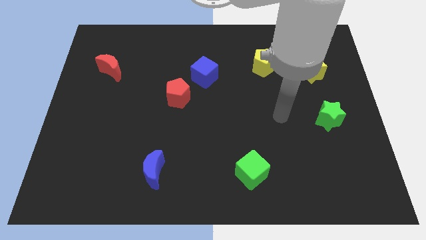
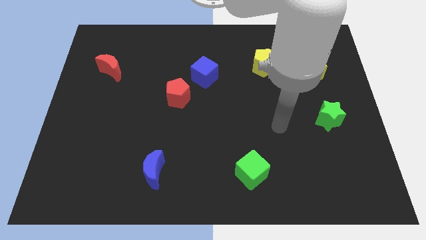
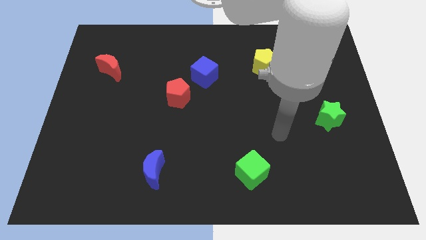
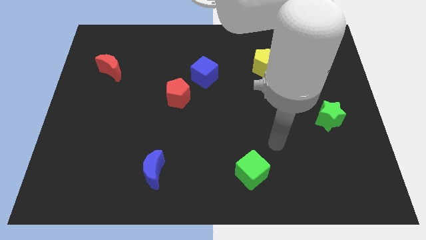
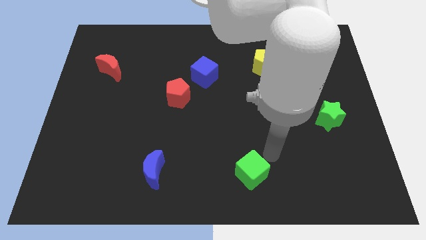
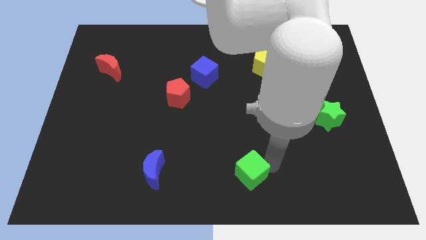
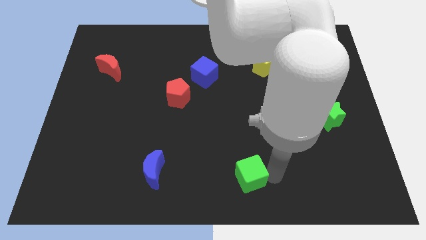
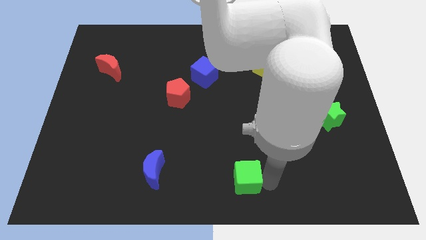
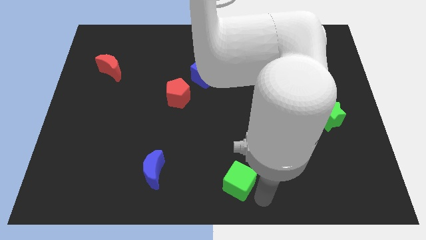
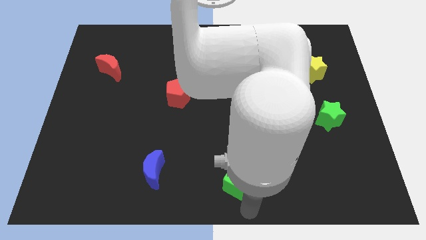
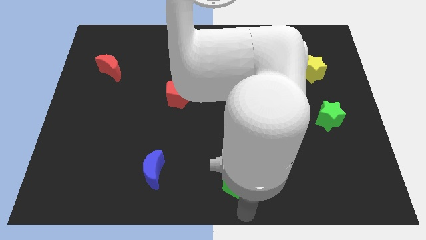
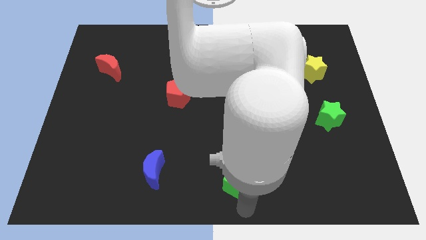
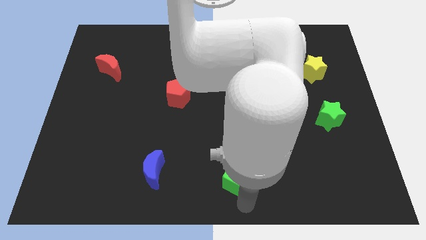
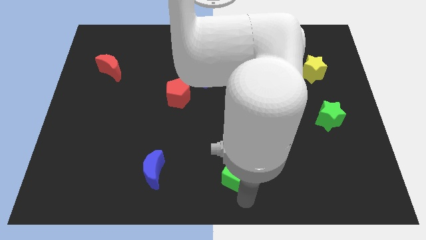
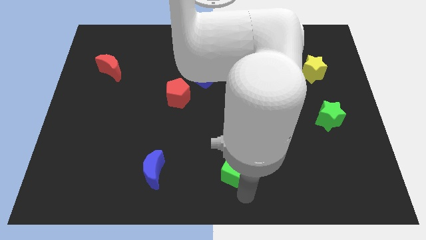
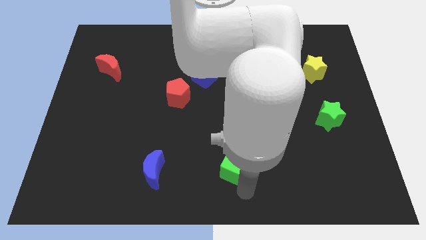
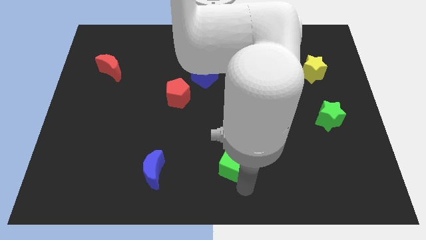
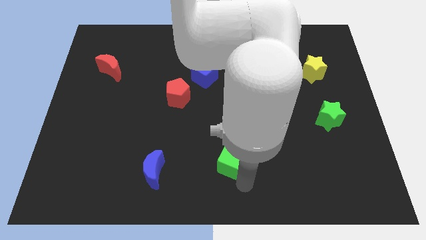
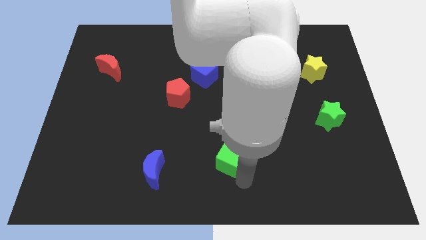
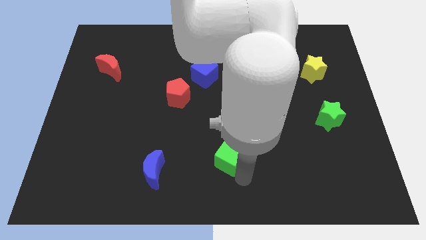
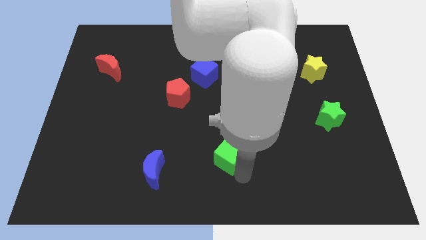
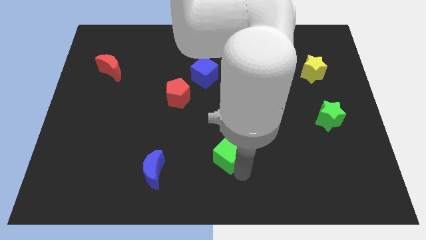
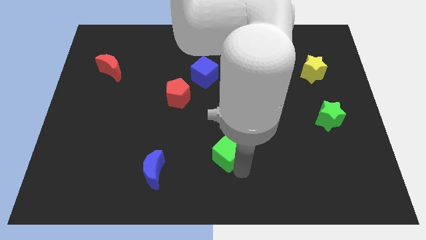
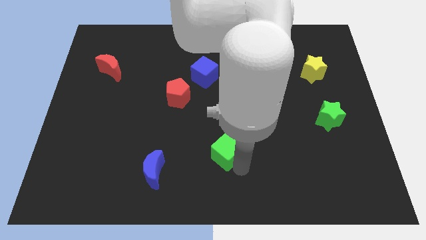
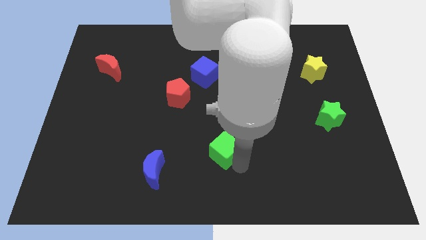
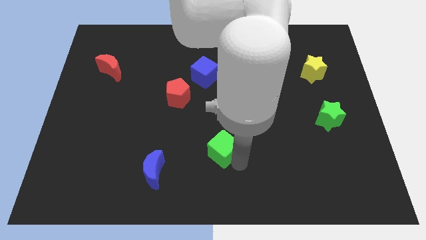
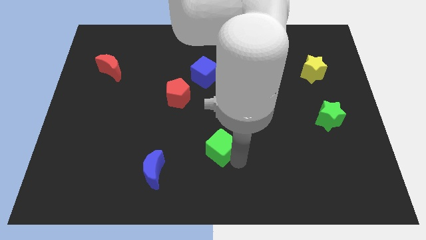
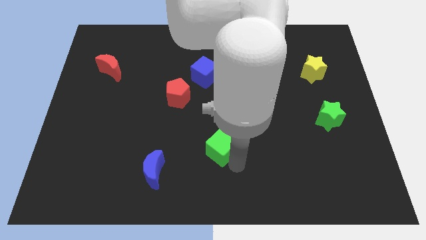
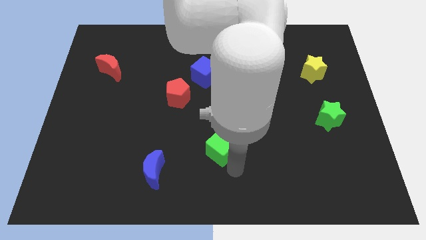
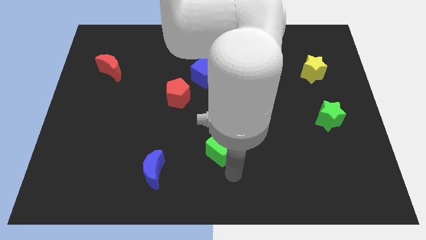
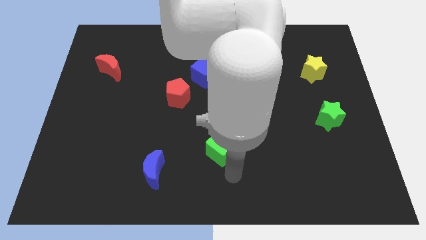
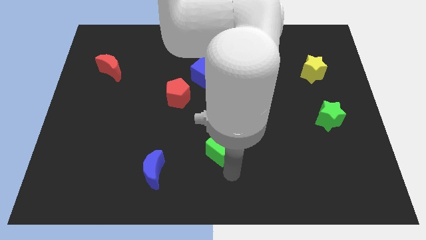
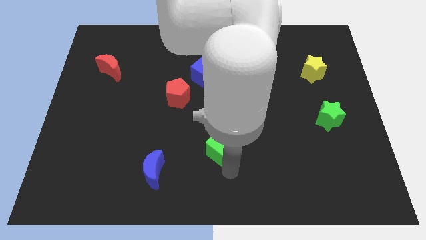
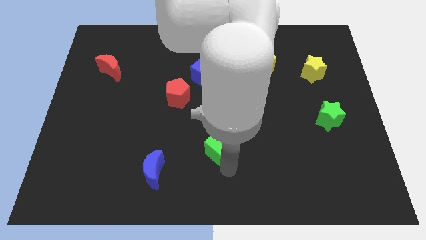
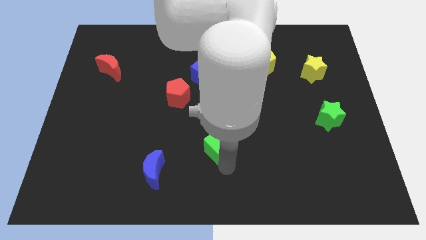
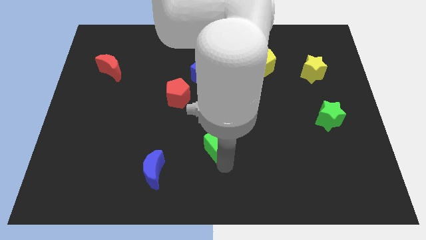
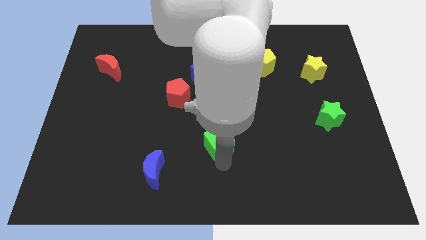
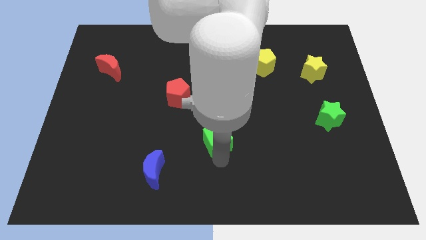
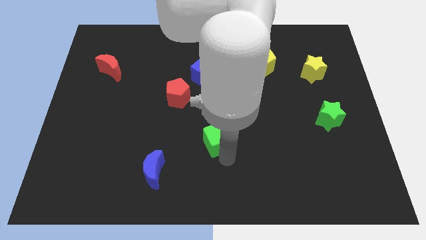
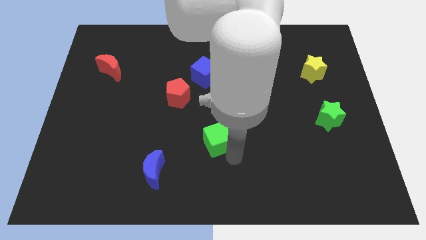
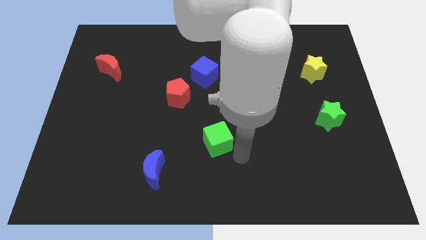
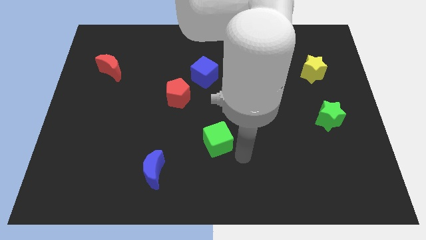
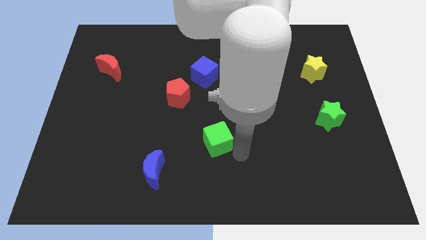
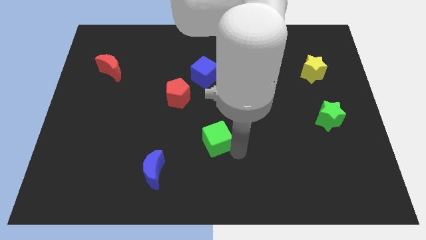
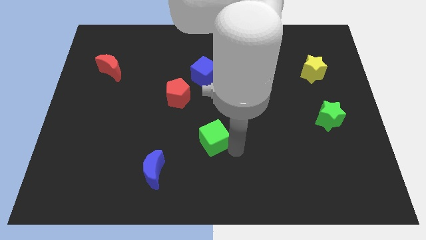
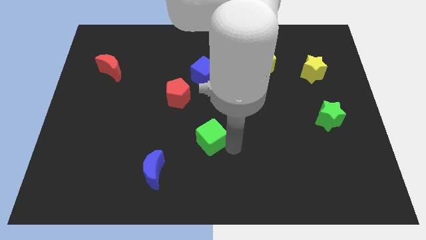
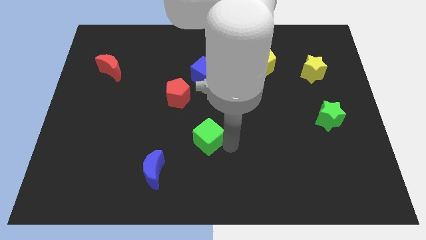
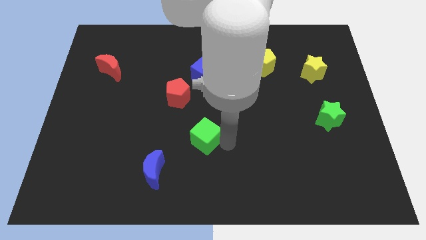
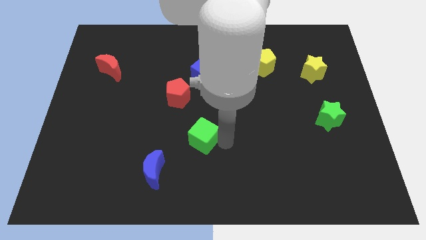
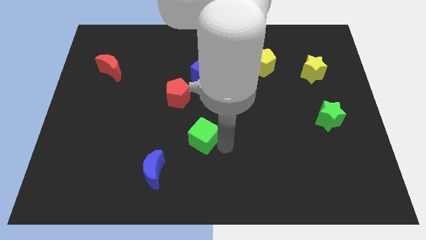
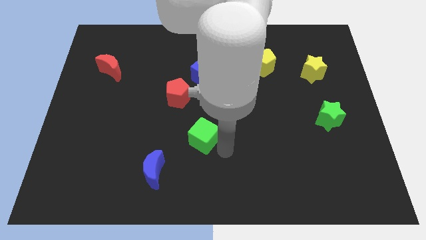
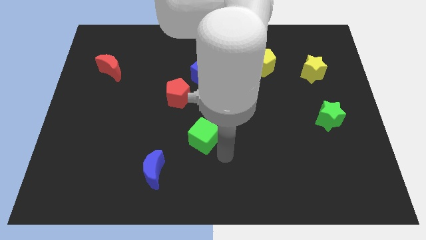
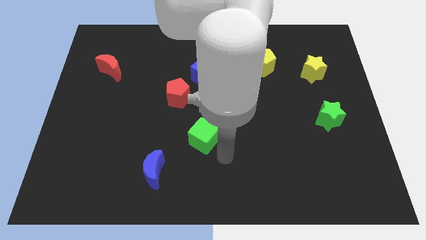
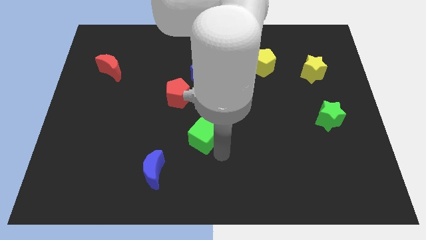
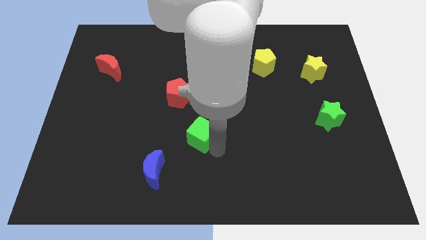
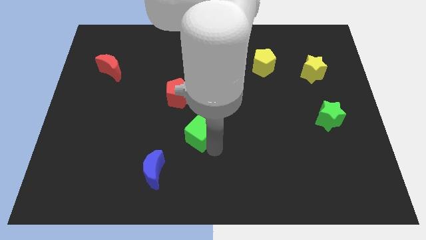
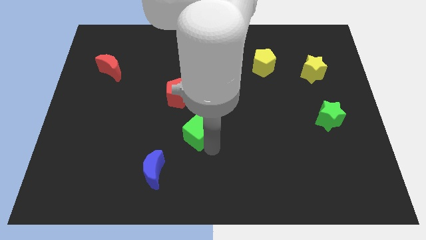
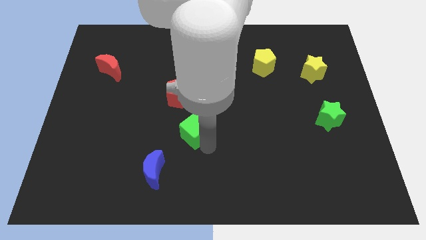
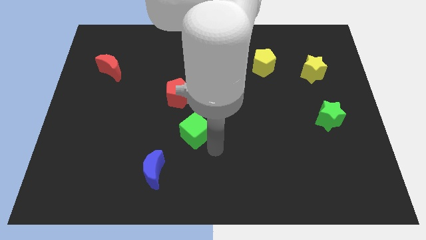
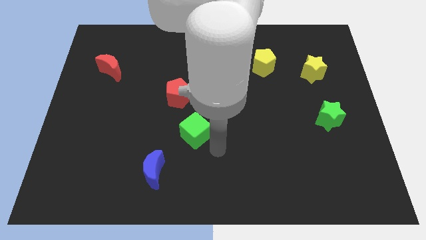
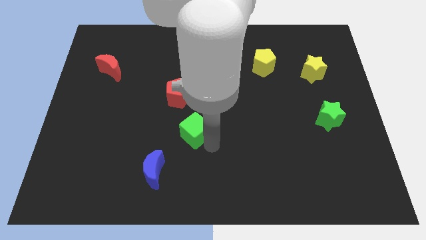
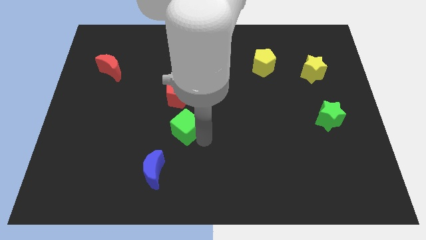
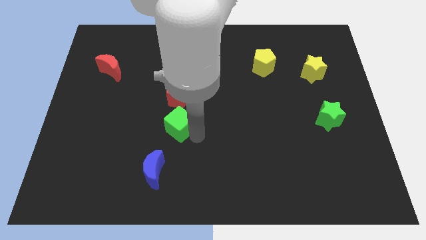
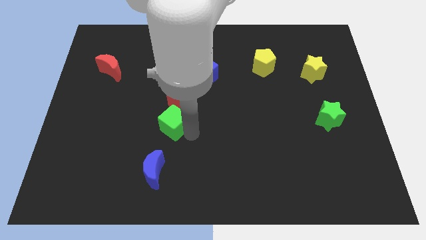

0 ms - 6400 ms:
push the green cube up and then to the left

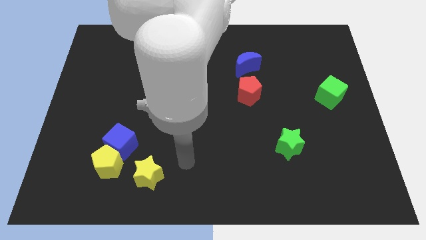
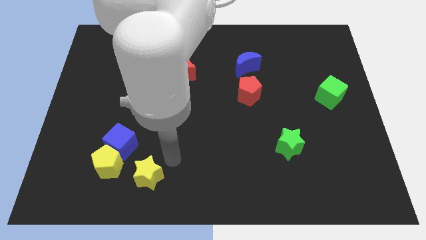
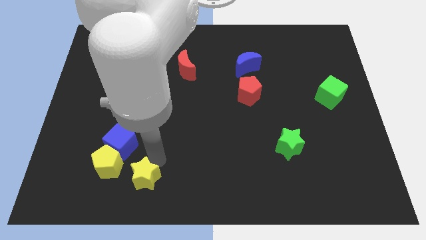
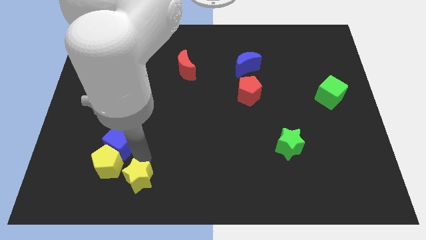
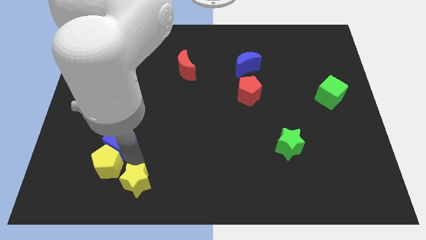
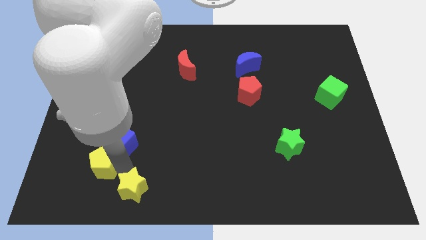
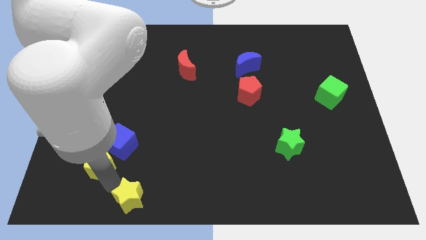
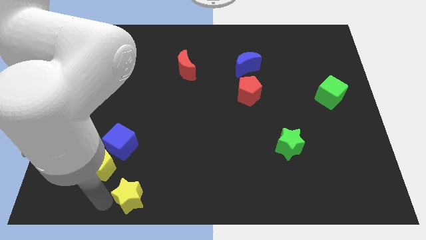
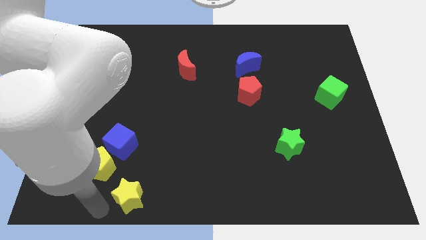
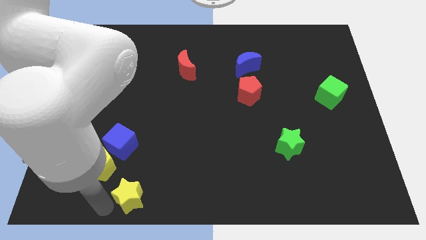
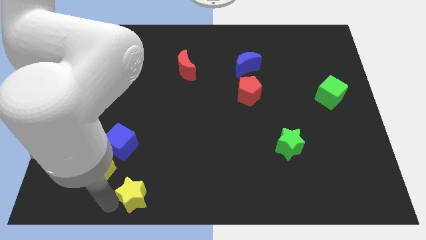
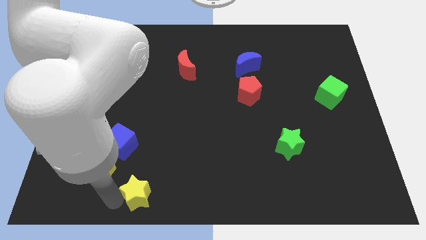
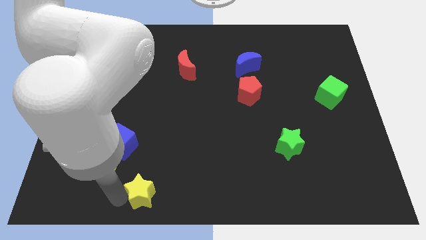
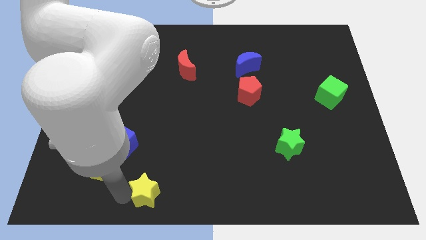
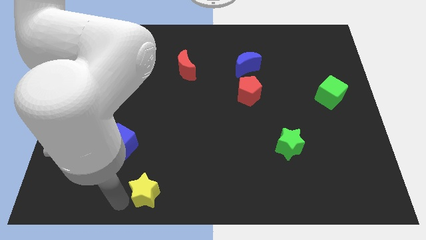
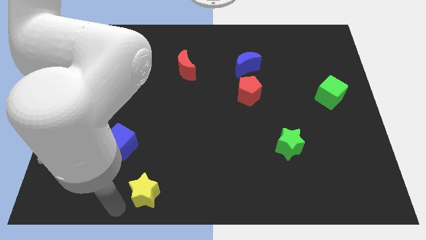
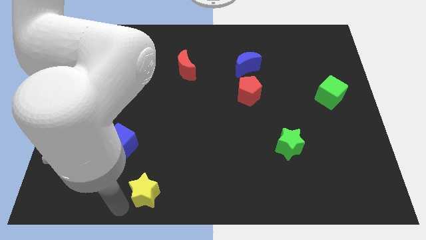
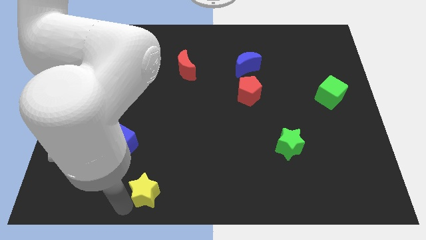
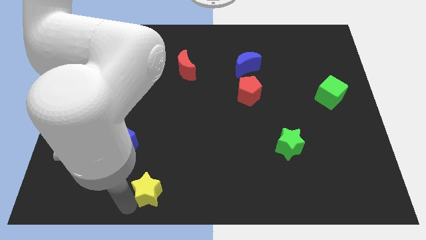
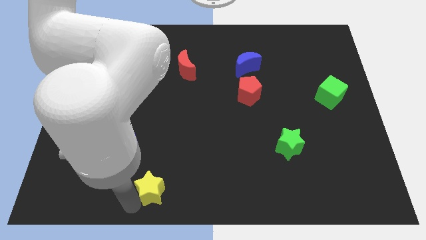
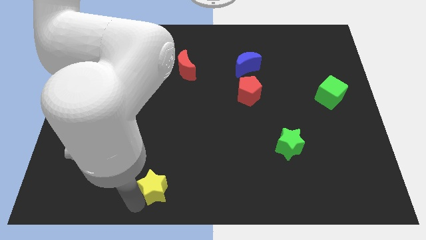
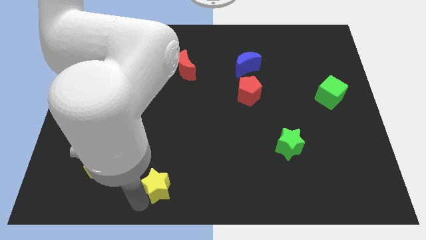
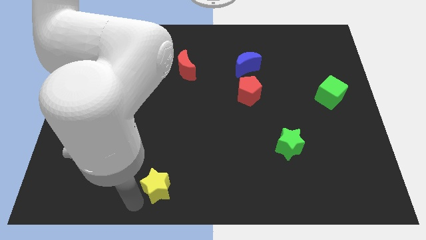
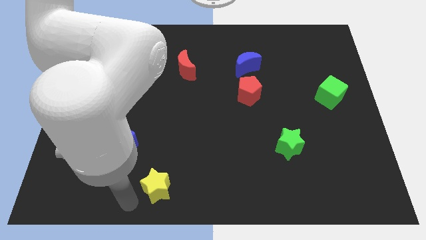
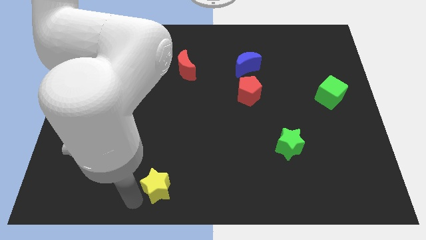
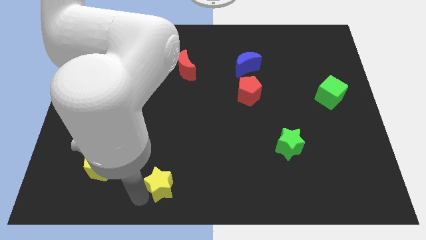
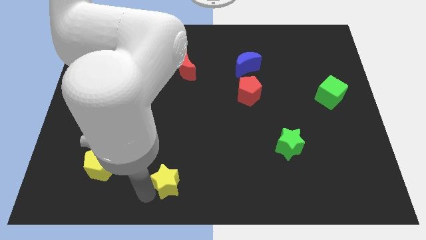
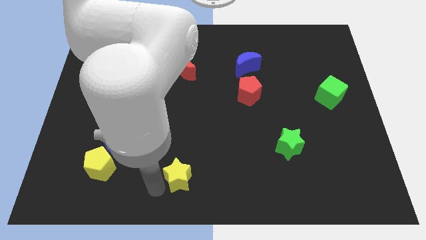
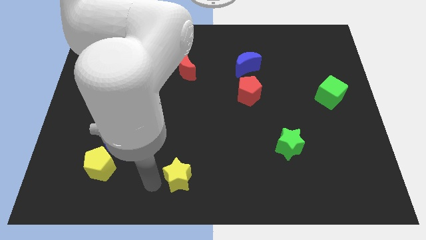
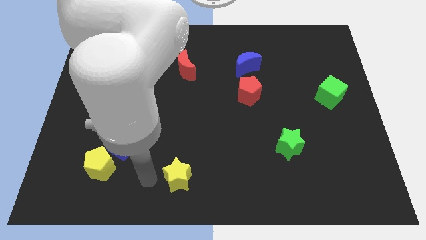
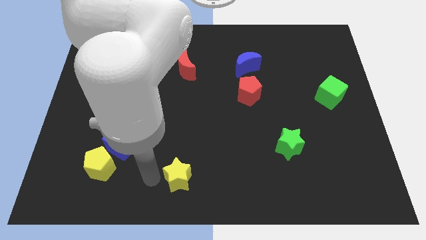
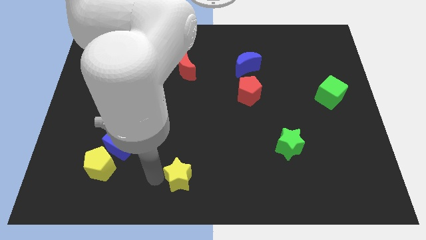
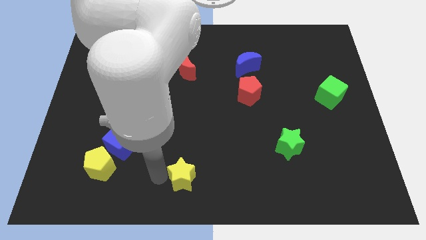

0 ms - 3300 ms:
slide the yellow star a little right
